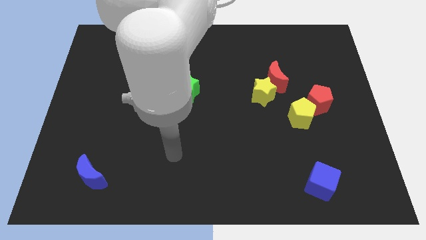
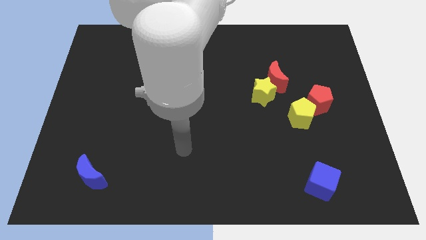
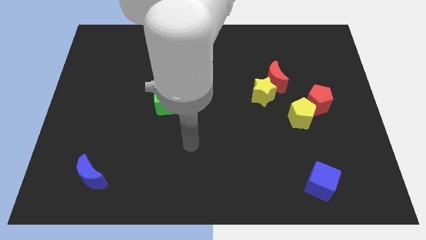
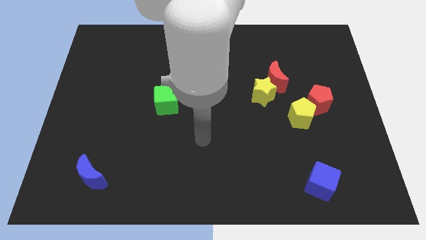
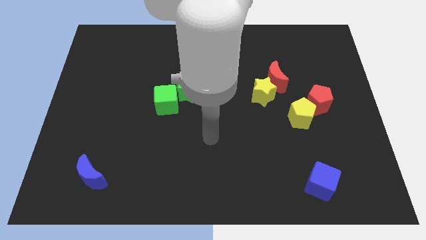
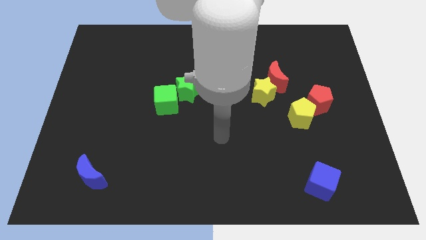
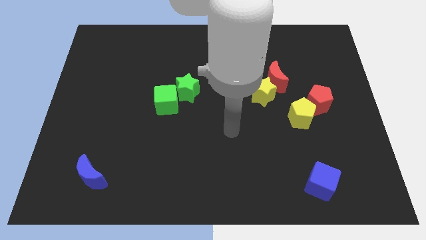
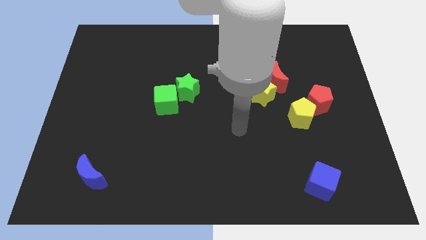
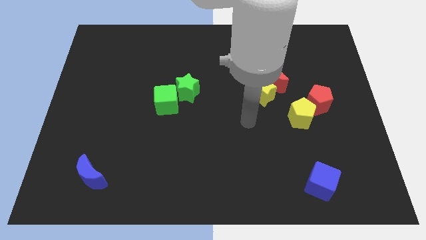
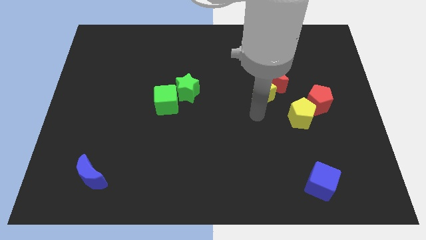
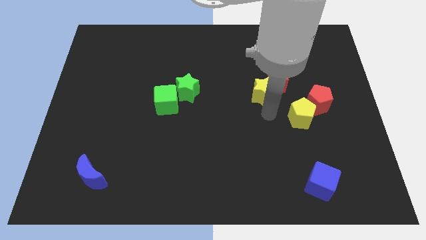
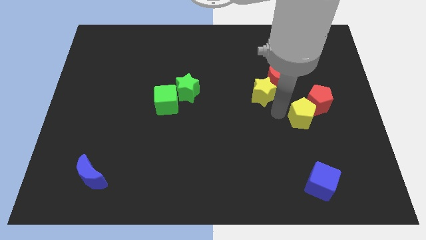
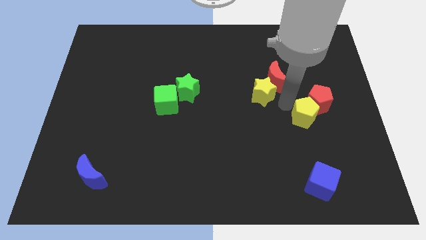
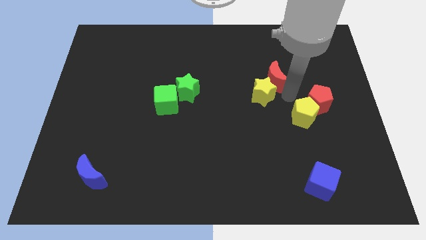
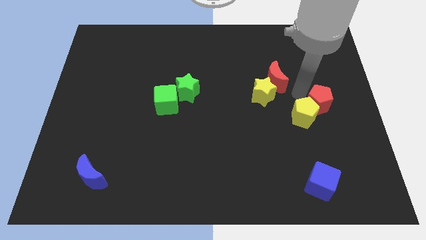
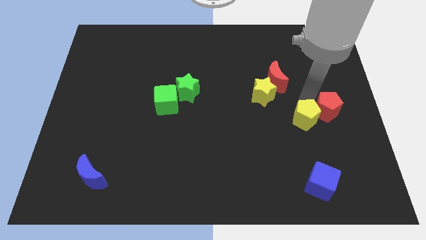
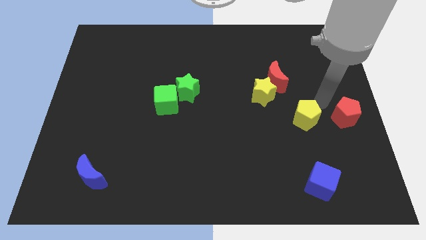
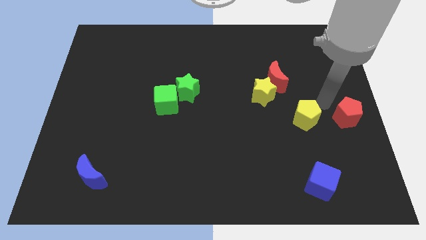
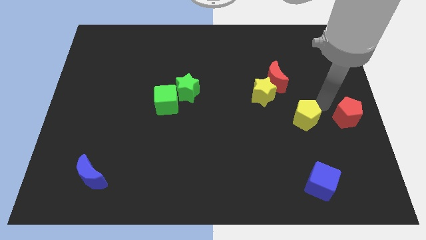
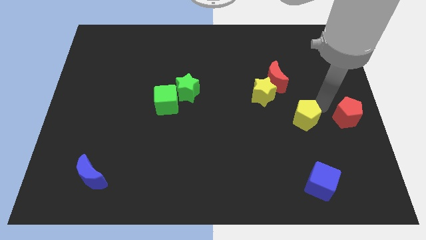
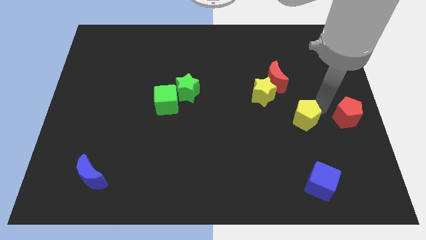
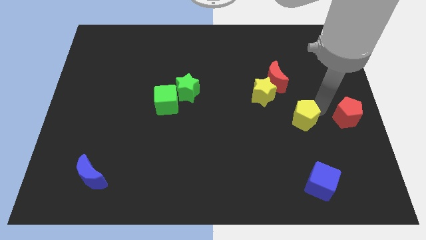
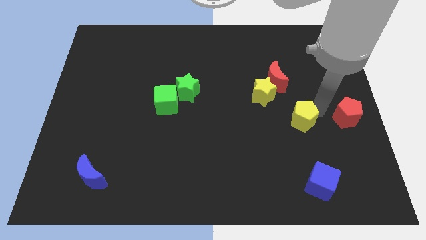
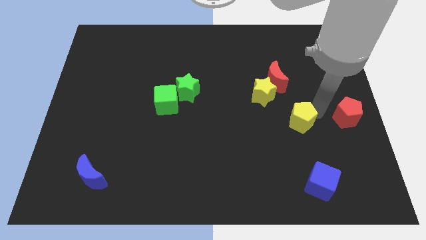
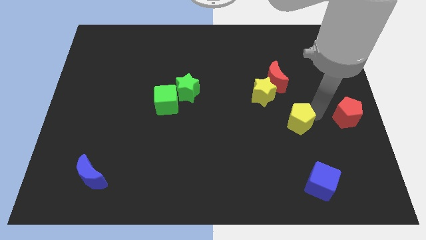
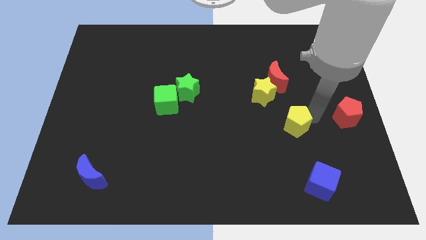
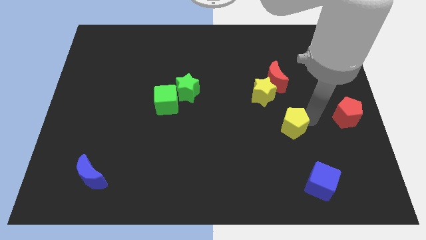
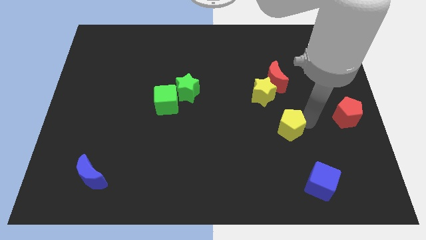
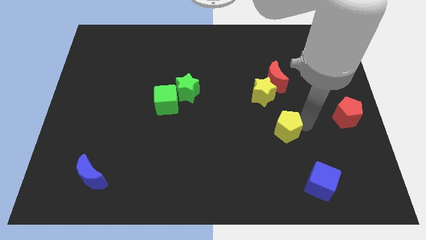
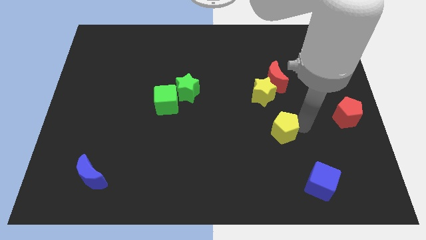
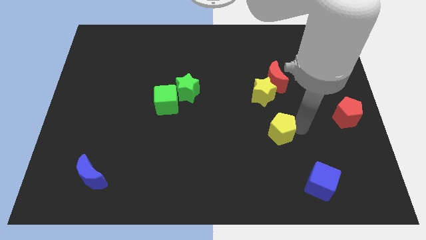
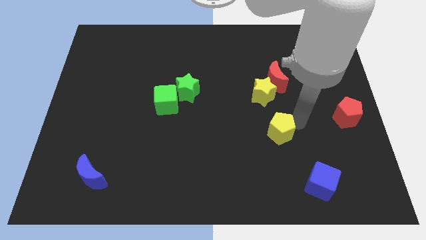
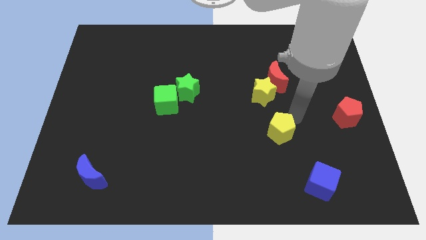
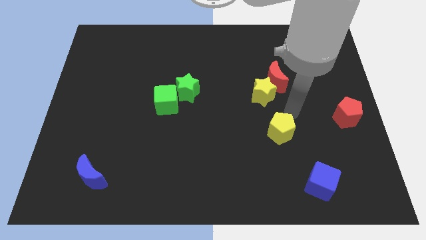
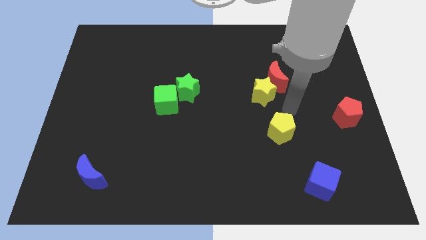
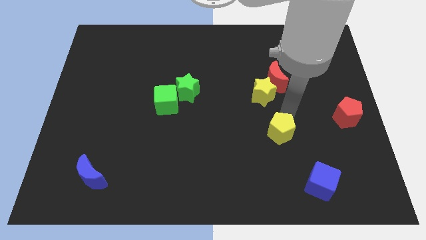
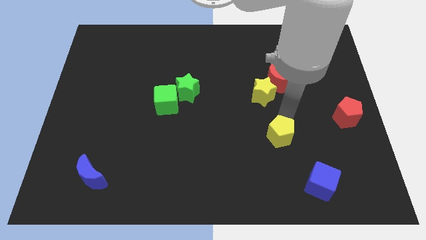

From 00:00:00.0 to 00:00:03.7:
move the yellow pentagon downwards and then to the left slightly

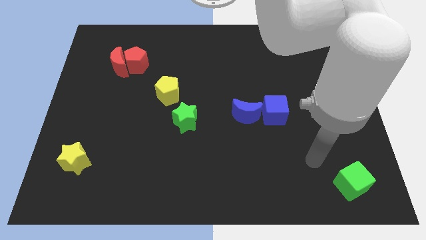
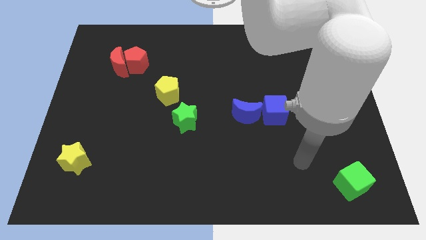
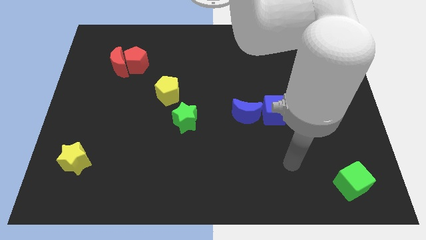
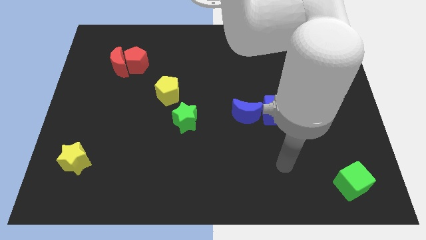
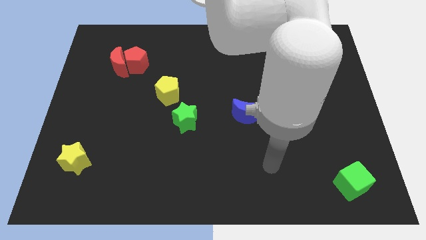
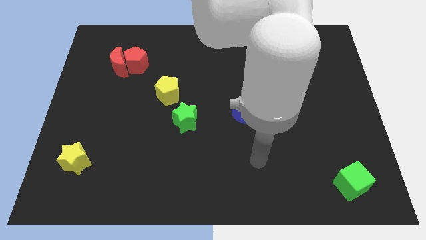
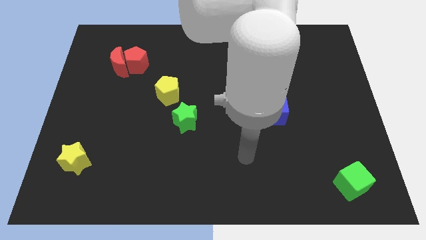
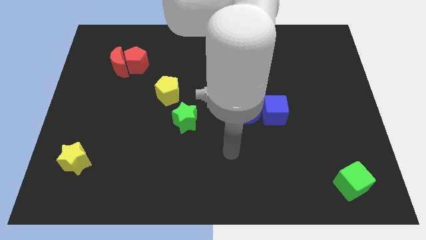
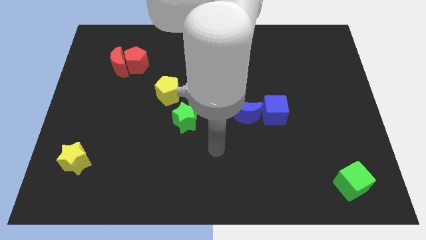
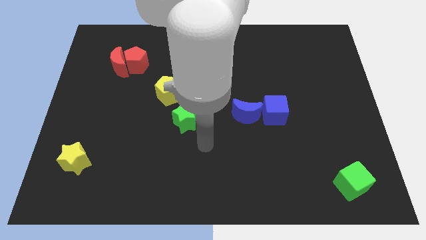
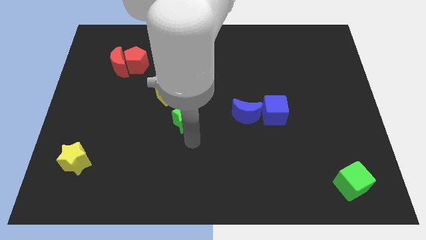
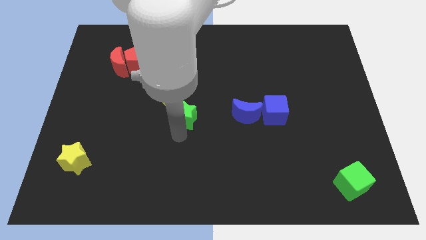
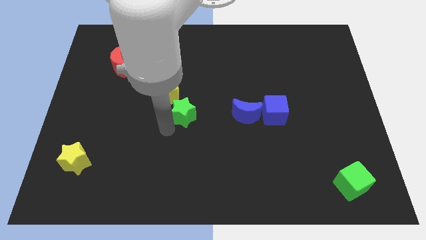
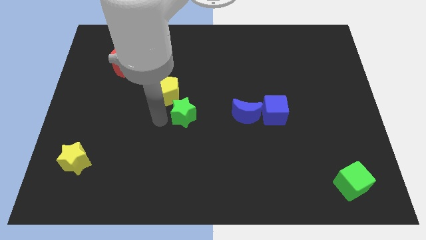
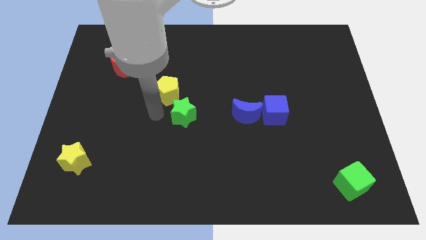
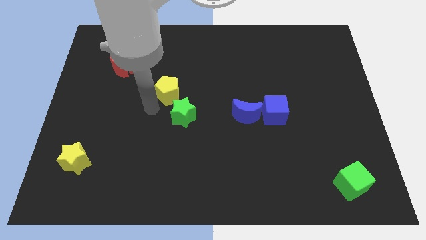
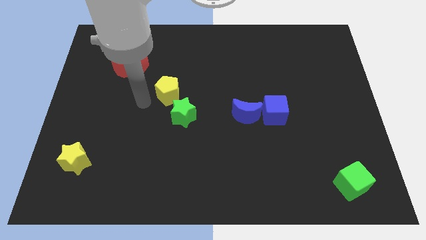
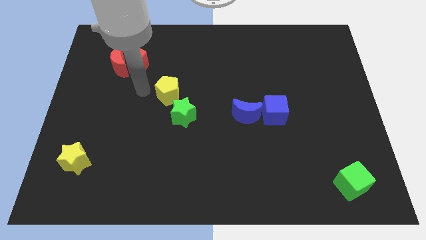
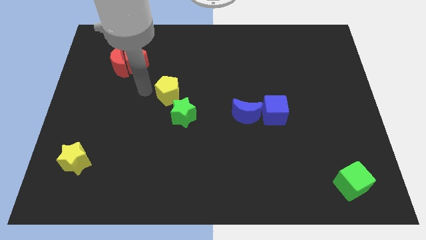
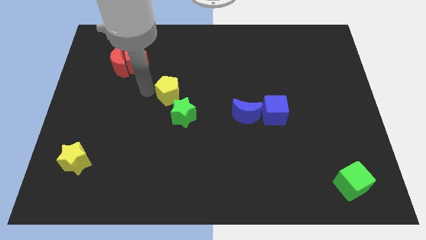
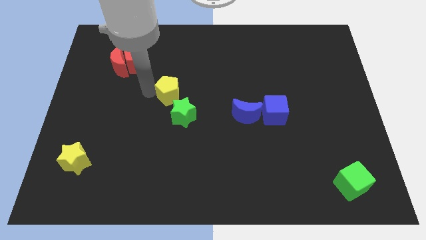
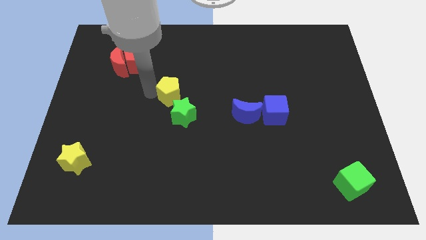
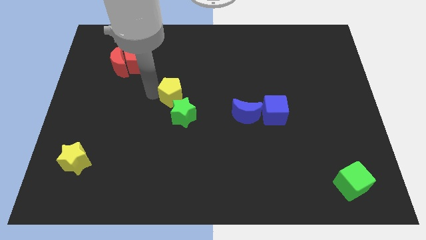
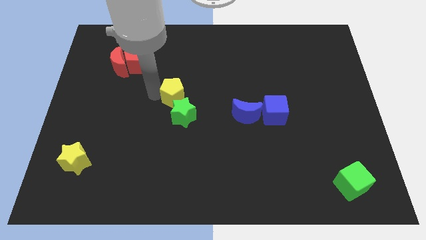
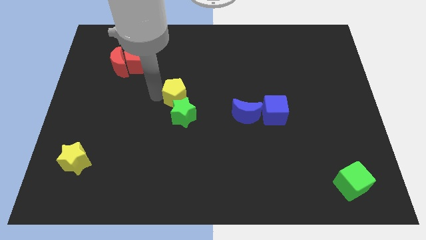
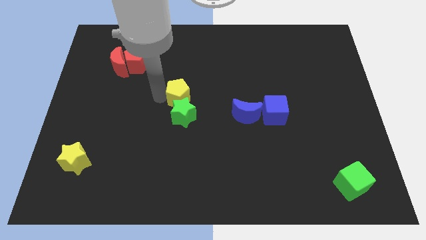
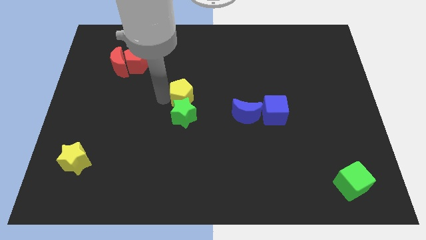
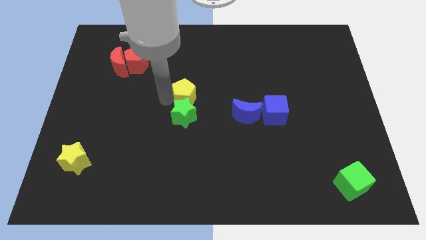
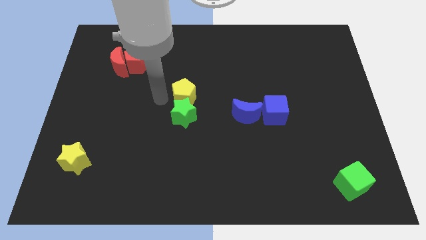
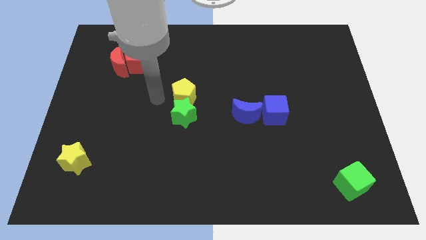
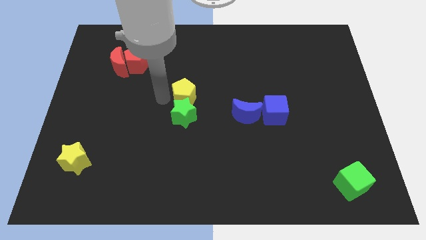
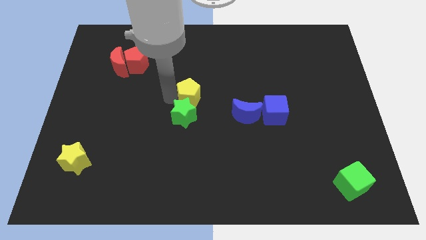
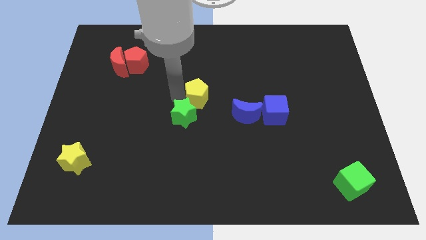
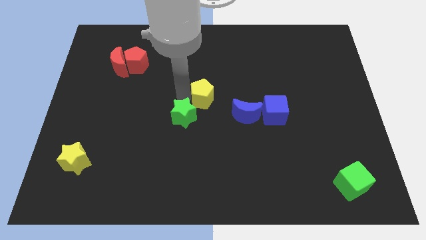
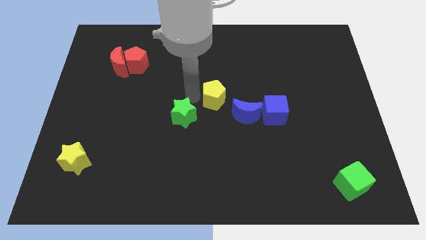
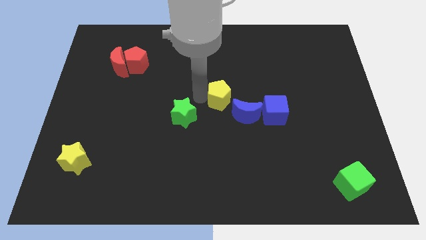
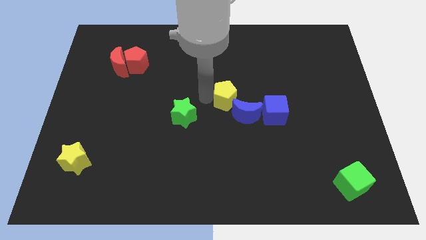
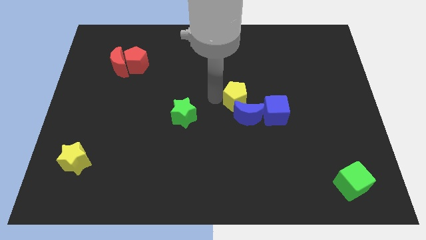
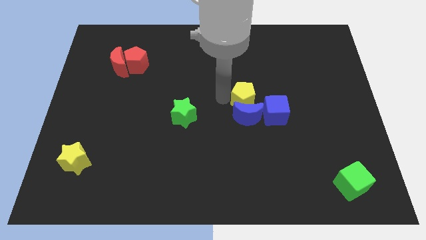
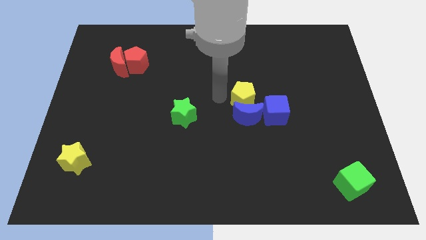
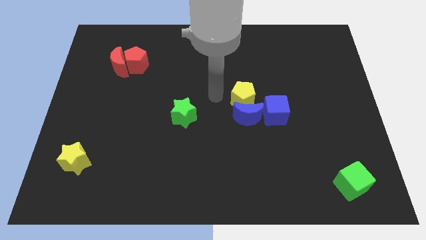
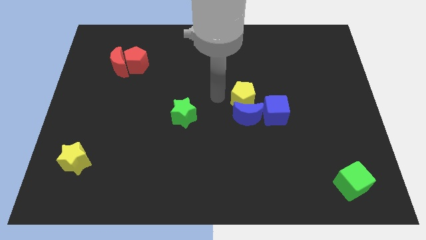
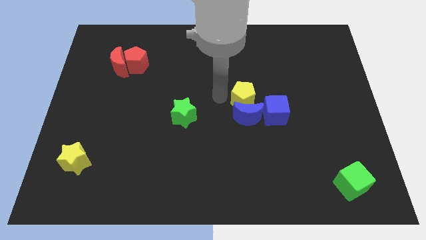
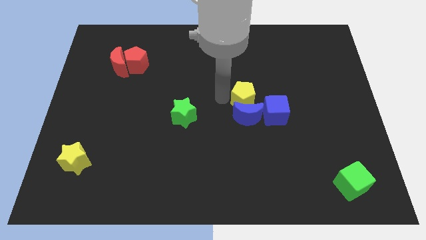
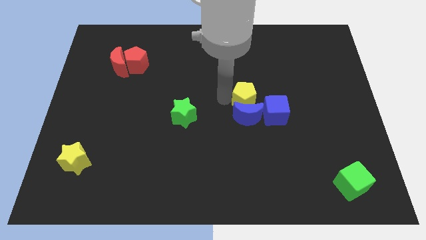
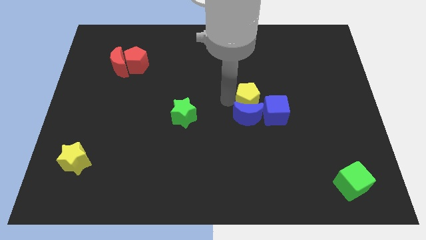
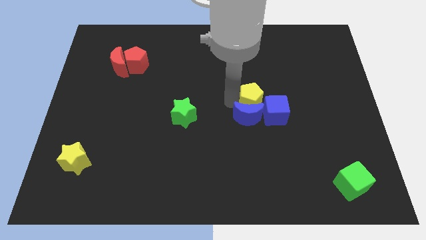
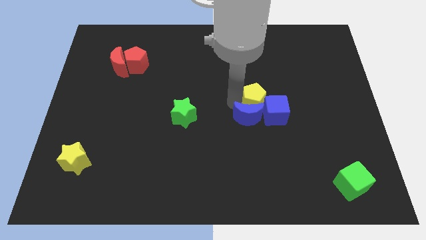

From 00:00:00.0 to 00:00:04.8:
slide the yellow pentagon to the right
